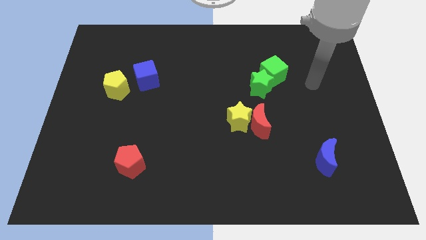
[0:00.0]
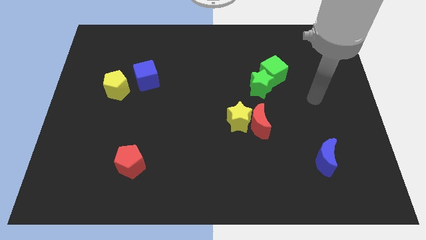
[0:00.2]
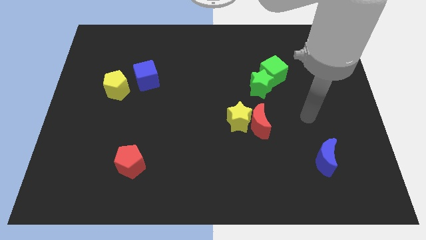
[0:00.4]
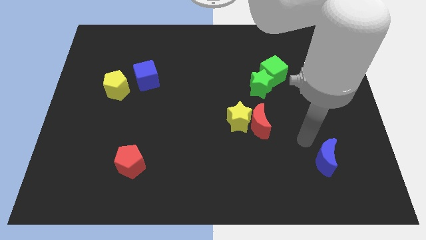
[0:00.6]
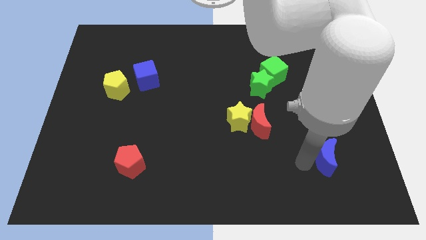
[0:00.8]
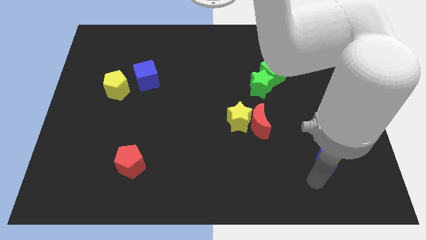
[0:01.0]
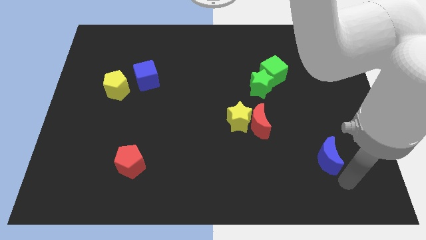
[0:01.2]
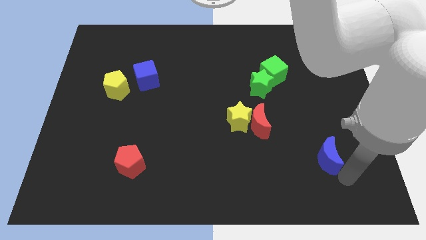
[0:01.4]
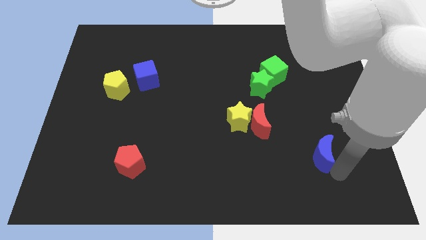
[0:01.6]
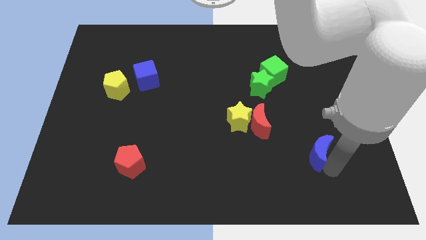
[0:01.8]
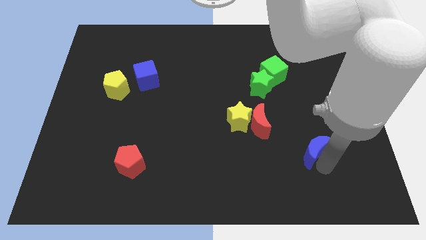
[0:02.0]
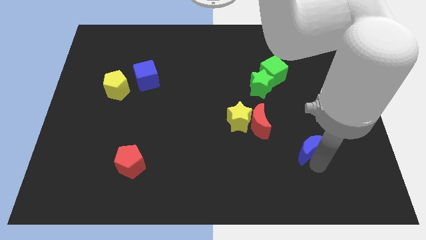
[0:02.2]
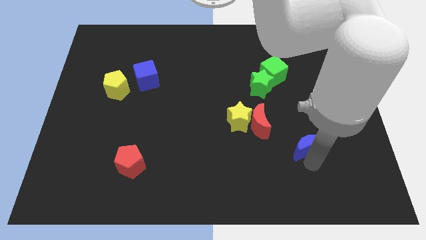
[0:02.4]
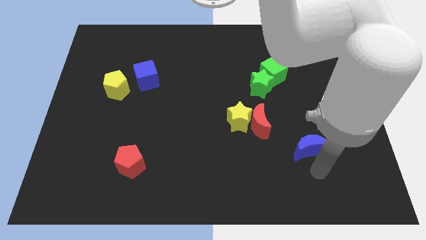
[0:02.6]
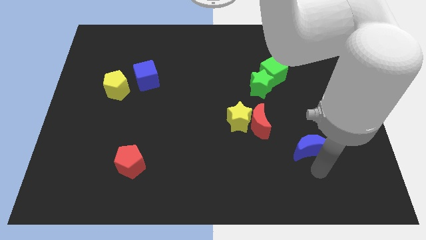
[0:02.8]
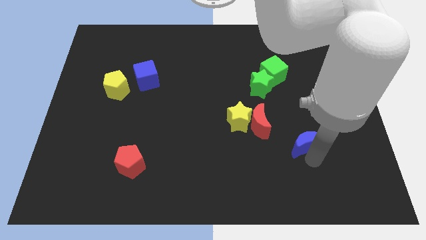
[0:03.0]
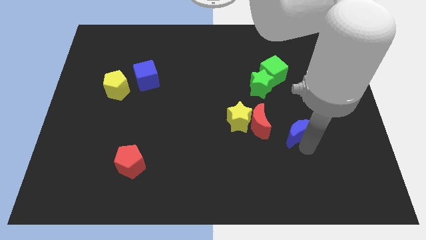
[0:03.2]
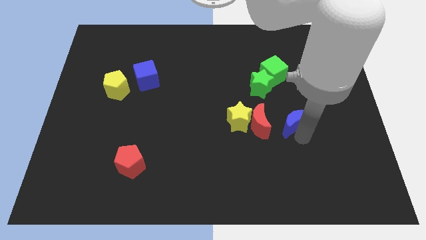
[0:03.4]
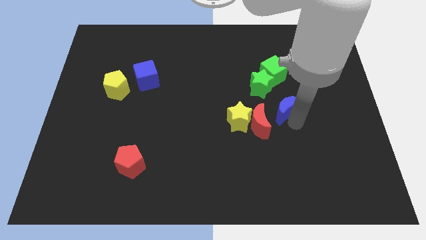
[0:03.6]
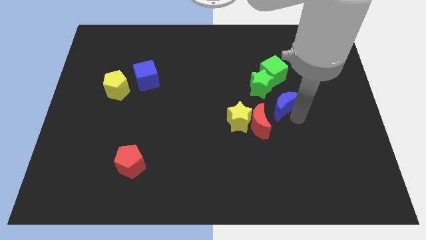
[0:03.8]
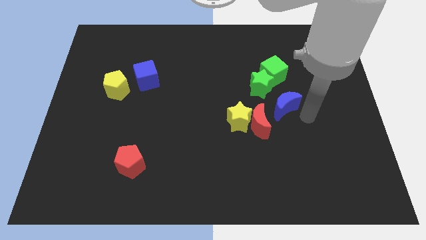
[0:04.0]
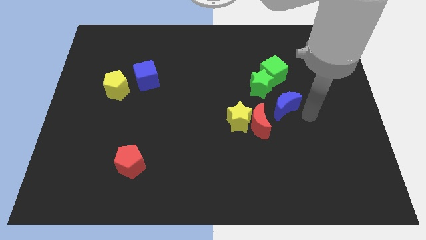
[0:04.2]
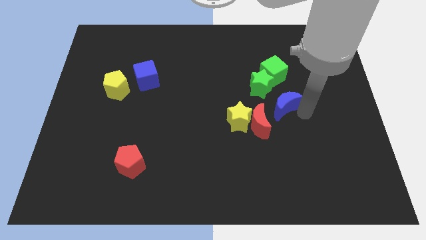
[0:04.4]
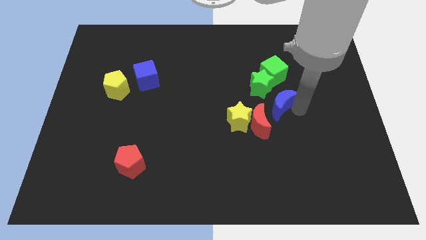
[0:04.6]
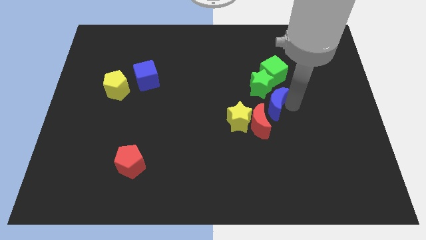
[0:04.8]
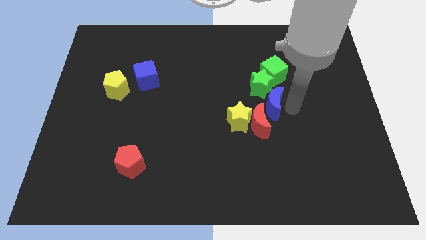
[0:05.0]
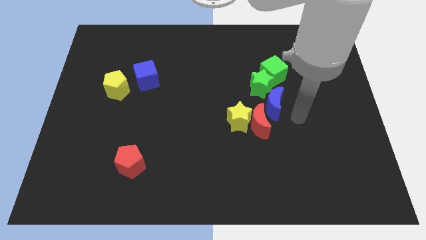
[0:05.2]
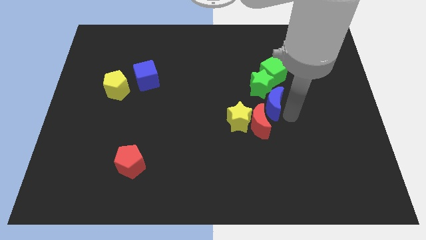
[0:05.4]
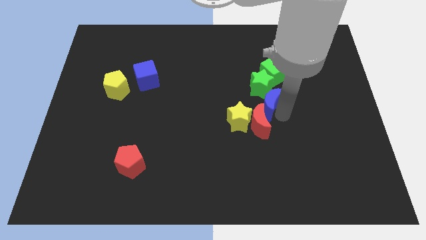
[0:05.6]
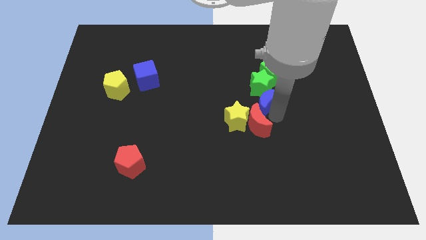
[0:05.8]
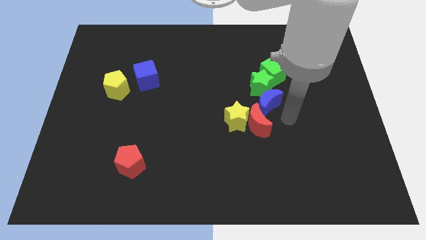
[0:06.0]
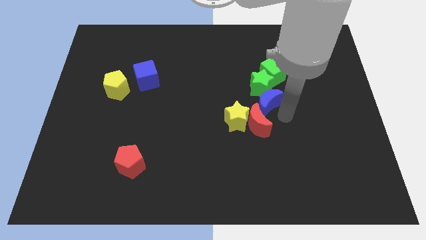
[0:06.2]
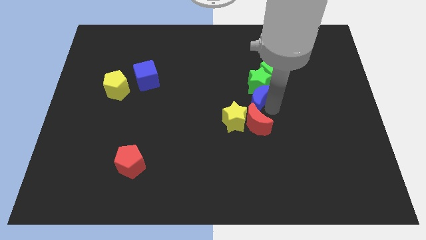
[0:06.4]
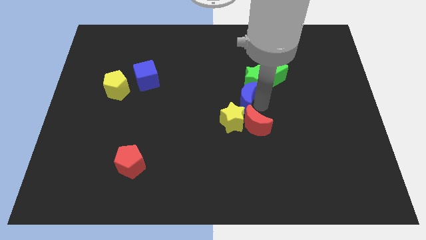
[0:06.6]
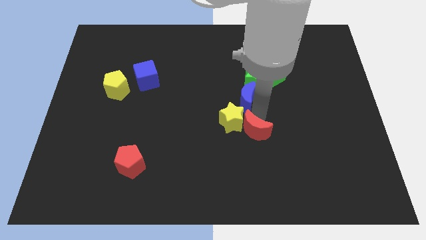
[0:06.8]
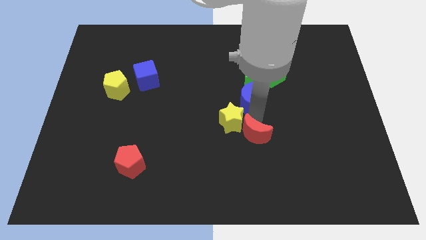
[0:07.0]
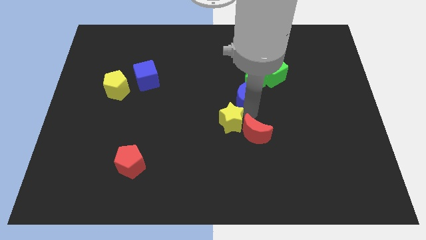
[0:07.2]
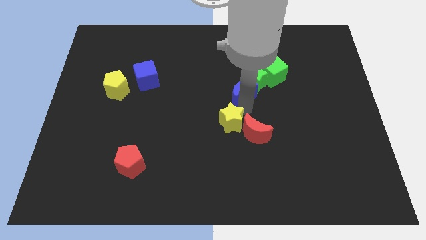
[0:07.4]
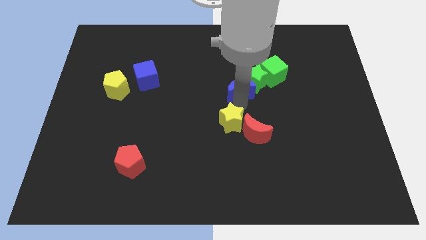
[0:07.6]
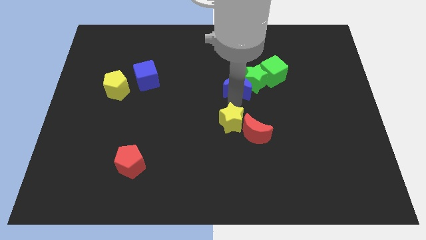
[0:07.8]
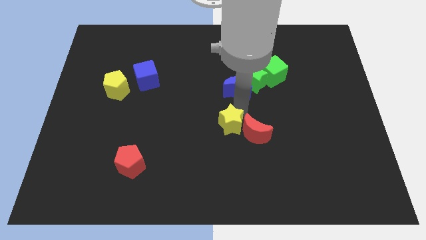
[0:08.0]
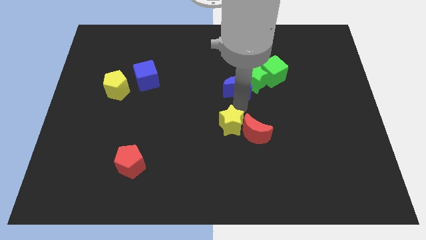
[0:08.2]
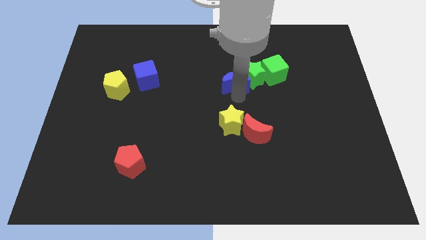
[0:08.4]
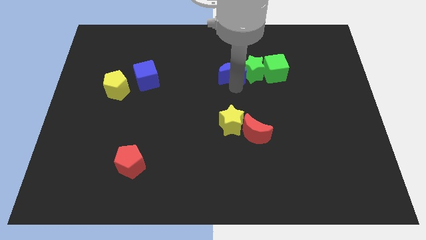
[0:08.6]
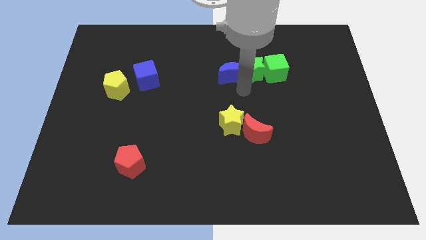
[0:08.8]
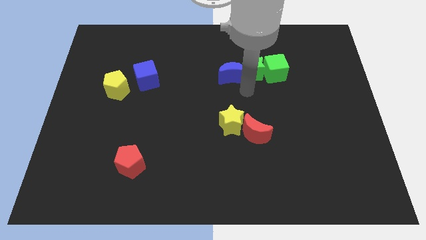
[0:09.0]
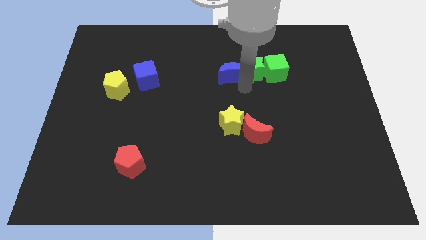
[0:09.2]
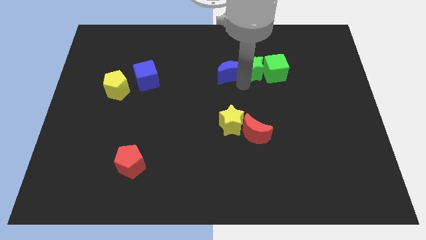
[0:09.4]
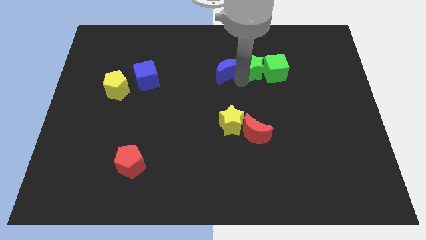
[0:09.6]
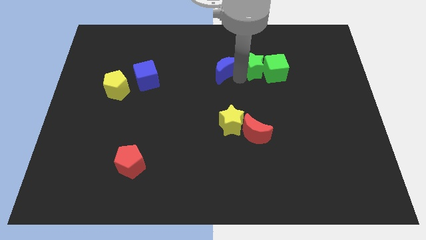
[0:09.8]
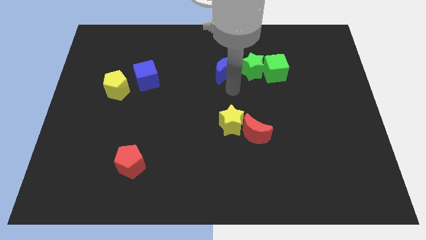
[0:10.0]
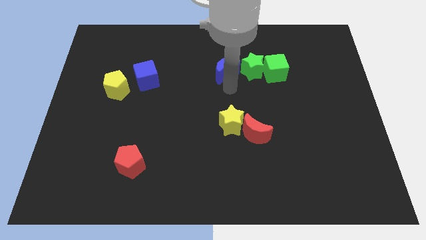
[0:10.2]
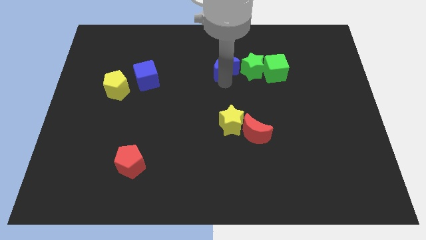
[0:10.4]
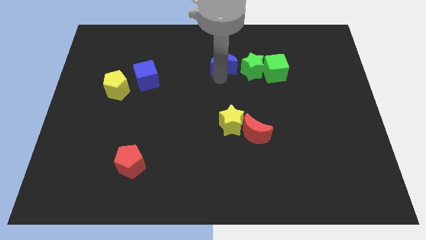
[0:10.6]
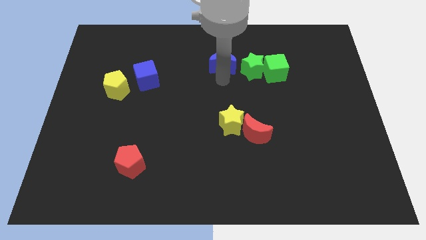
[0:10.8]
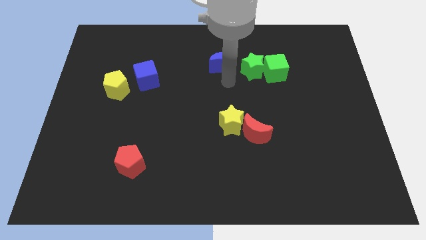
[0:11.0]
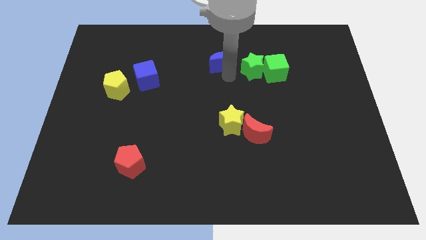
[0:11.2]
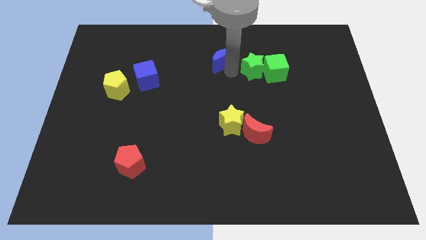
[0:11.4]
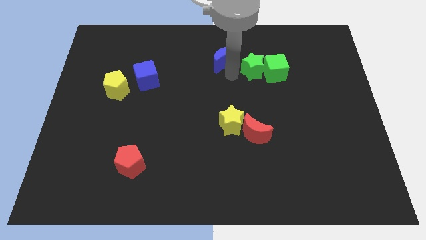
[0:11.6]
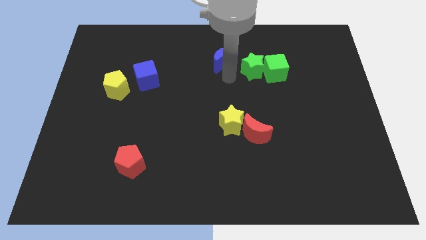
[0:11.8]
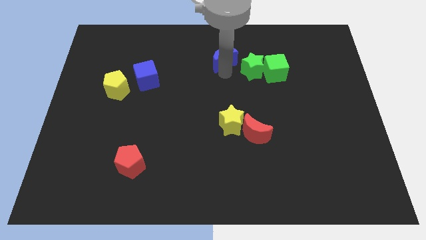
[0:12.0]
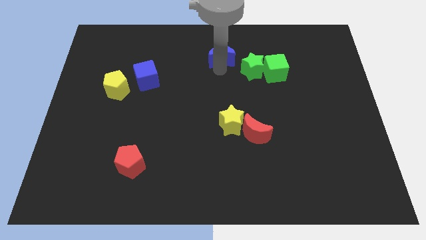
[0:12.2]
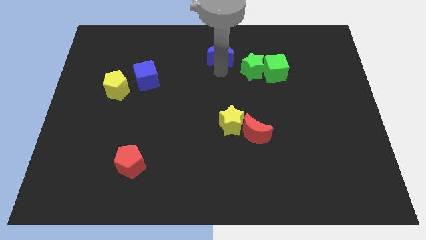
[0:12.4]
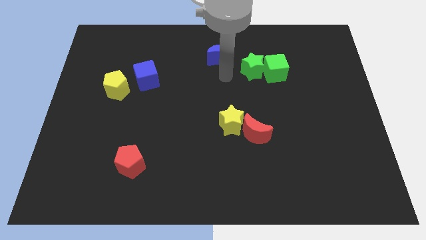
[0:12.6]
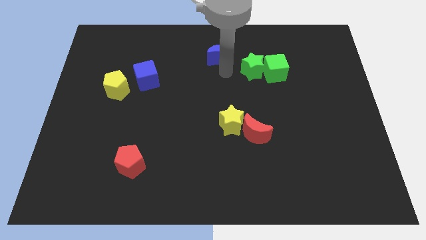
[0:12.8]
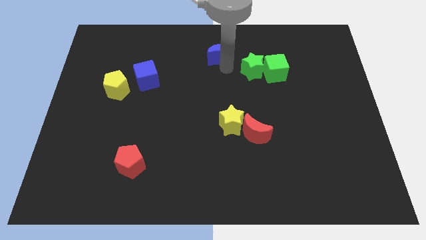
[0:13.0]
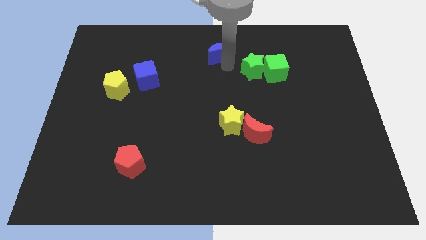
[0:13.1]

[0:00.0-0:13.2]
put the blue moon to the top
